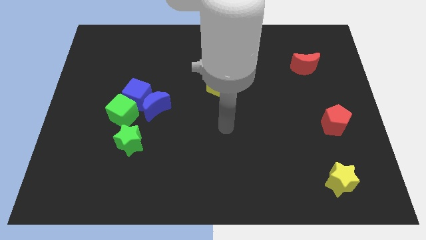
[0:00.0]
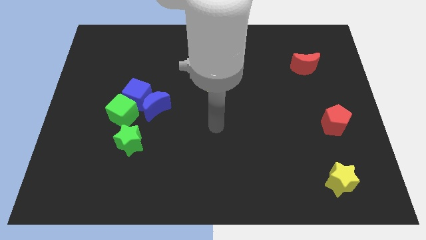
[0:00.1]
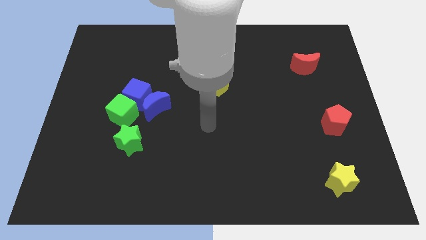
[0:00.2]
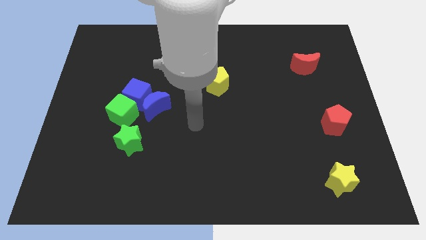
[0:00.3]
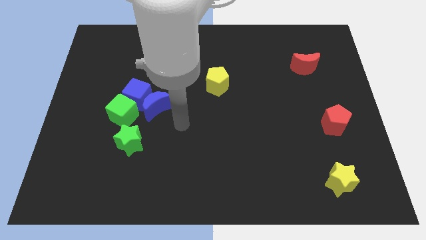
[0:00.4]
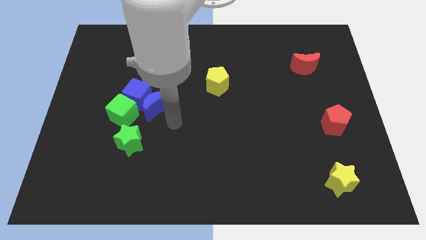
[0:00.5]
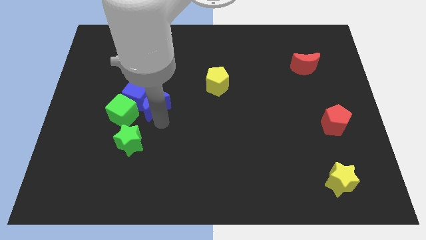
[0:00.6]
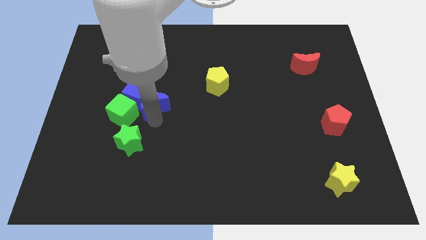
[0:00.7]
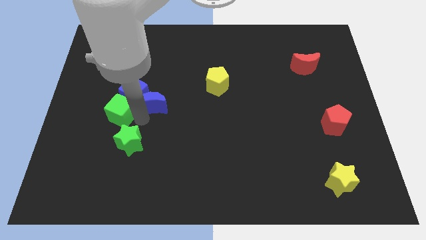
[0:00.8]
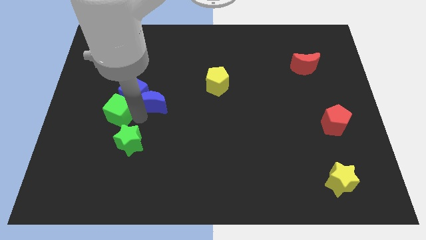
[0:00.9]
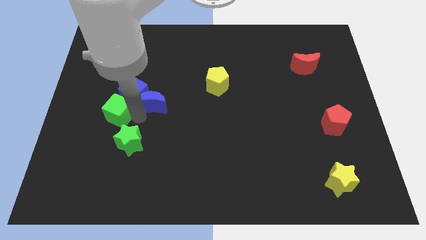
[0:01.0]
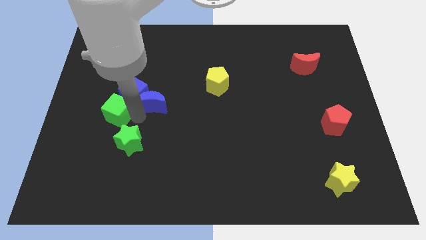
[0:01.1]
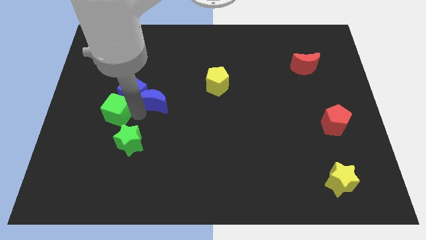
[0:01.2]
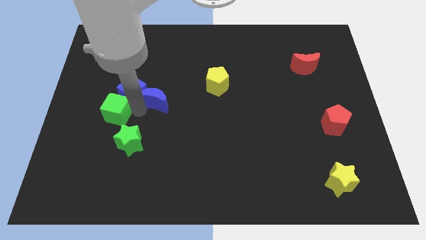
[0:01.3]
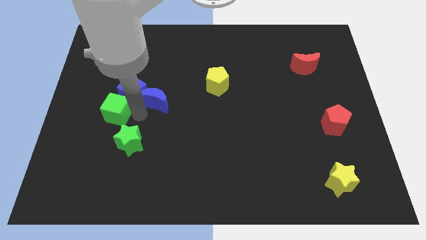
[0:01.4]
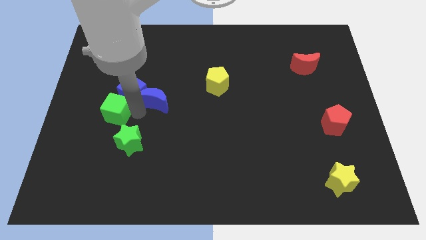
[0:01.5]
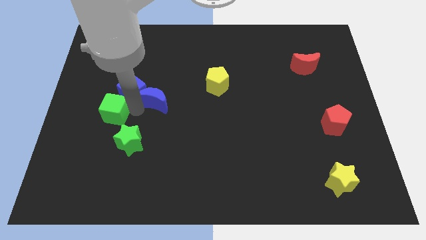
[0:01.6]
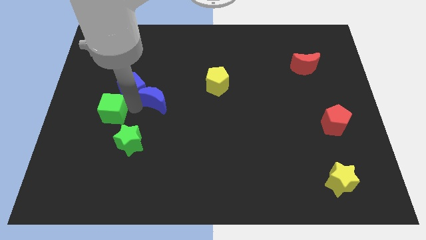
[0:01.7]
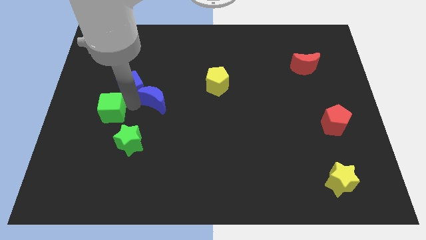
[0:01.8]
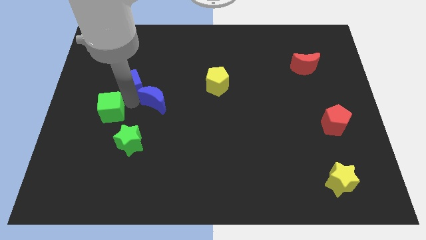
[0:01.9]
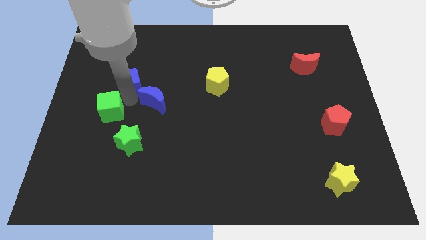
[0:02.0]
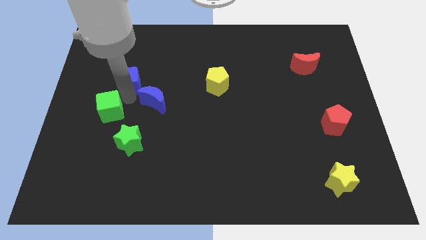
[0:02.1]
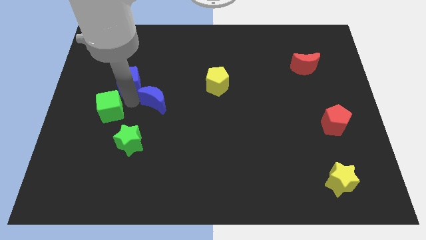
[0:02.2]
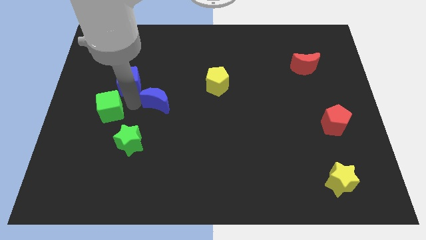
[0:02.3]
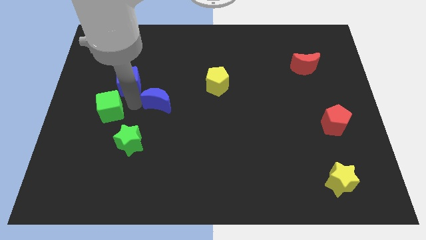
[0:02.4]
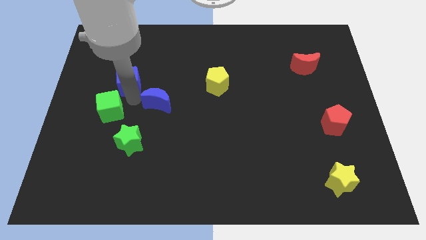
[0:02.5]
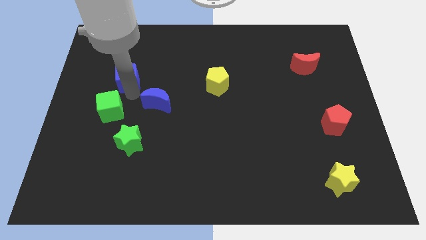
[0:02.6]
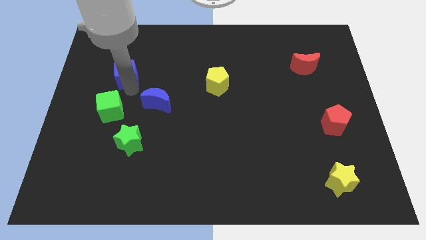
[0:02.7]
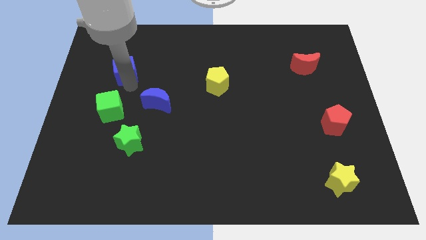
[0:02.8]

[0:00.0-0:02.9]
pull the blue cube apart from the blue moon and green cube

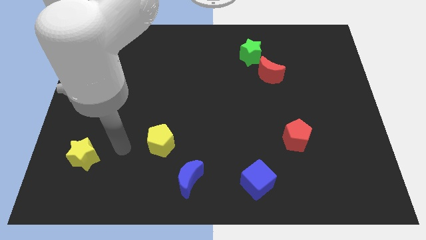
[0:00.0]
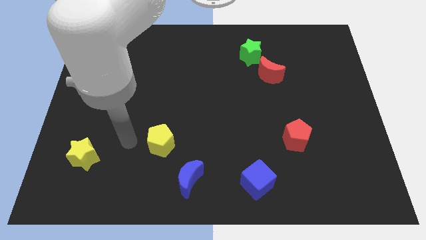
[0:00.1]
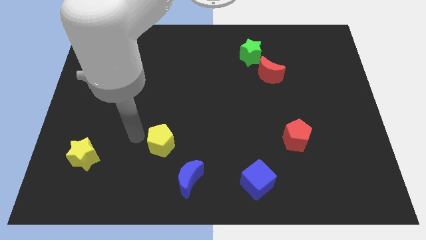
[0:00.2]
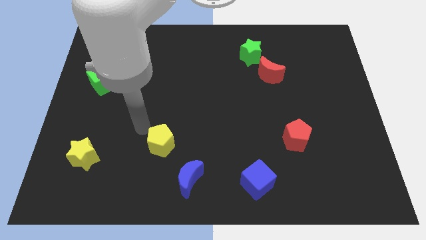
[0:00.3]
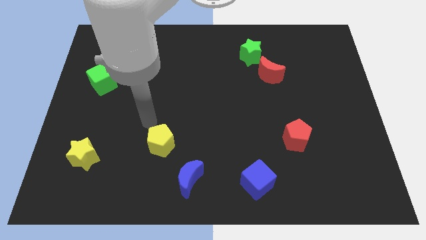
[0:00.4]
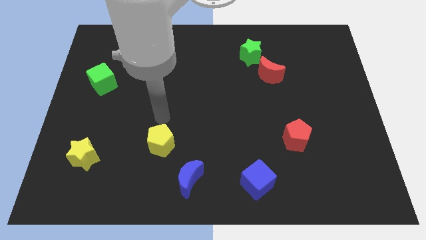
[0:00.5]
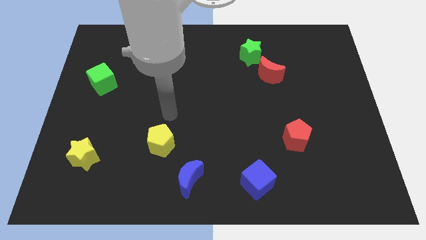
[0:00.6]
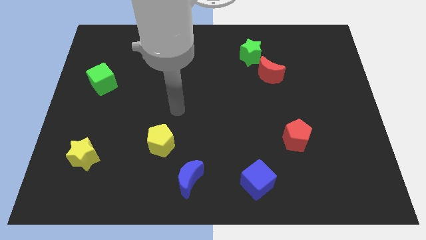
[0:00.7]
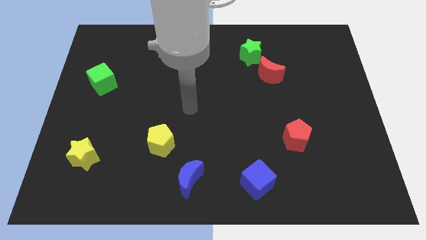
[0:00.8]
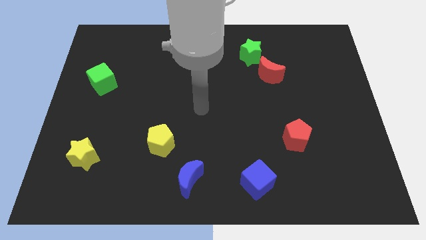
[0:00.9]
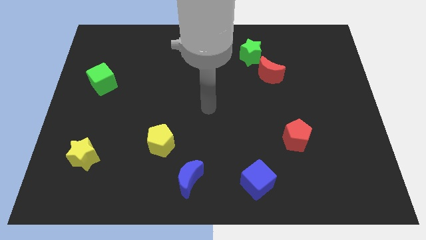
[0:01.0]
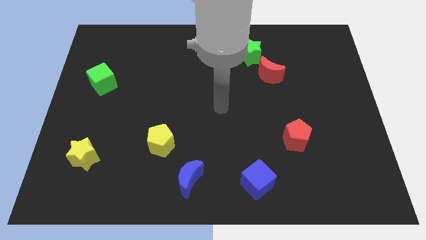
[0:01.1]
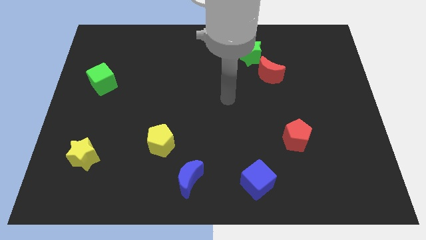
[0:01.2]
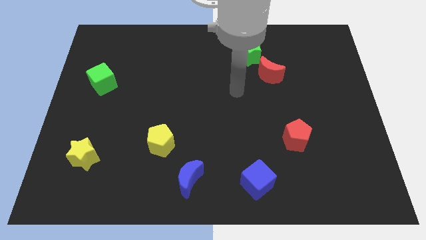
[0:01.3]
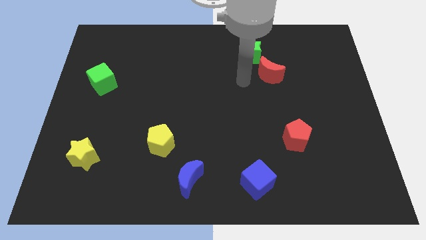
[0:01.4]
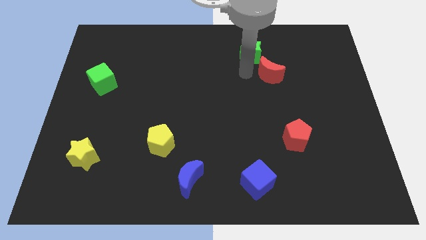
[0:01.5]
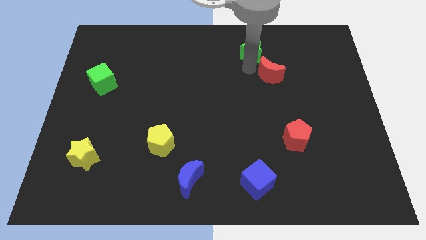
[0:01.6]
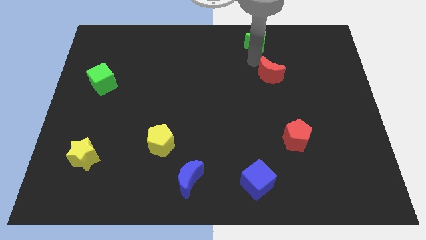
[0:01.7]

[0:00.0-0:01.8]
pull the red moon apart from the green star

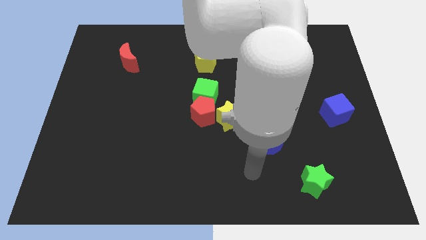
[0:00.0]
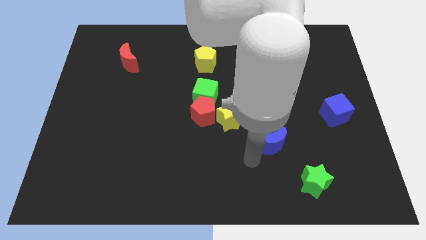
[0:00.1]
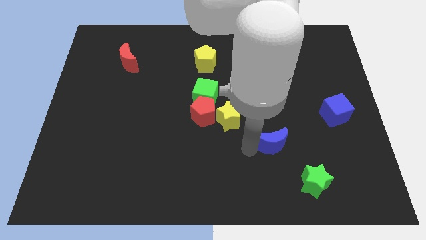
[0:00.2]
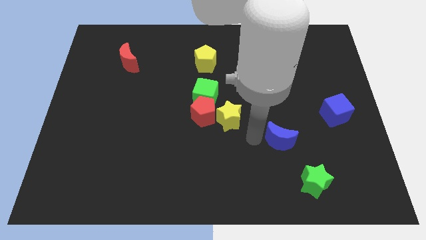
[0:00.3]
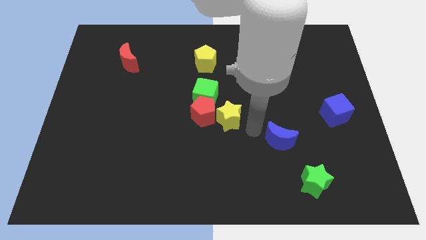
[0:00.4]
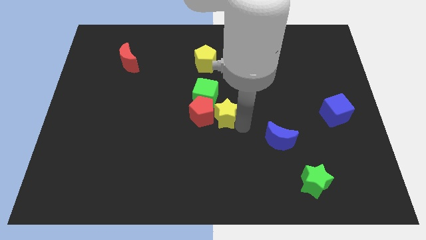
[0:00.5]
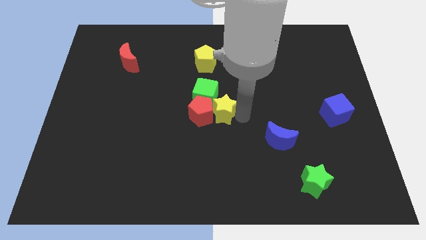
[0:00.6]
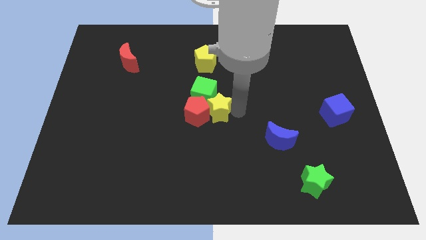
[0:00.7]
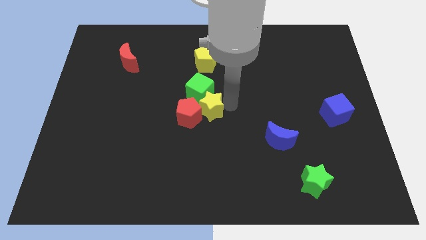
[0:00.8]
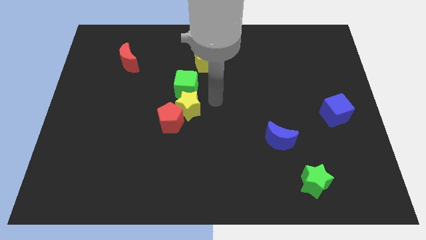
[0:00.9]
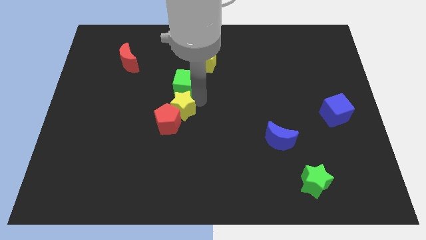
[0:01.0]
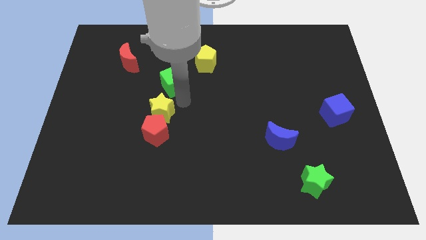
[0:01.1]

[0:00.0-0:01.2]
pull the red pentagon apart from the green cube and yellow star

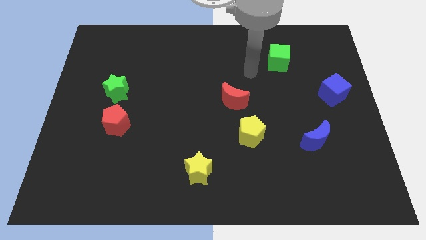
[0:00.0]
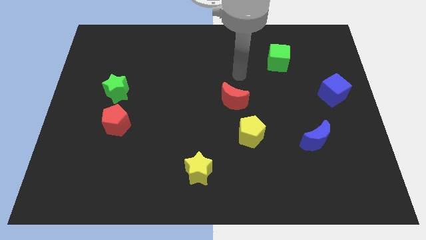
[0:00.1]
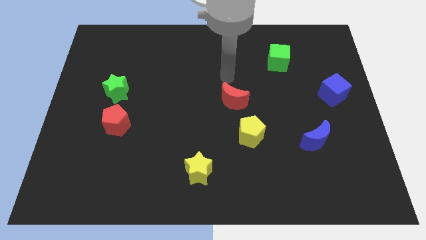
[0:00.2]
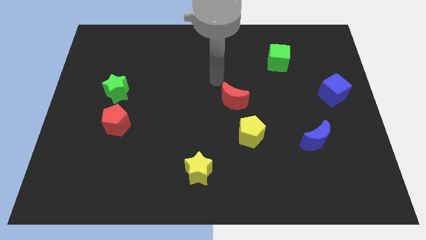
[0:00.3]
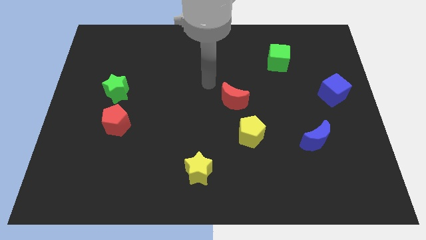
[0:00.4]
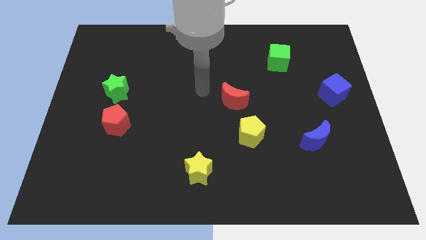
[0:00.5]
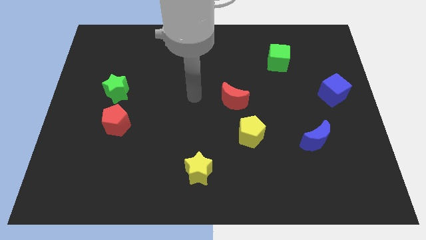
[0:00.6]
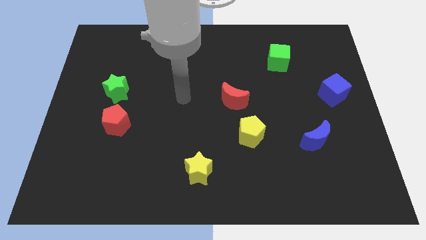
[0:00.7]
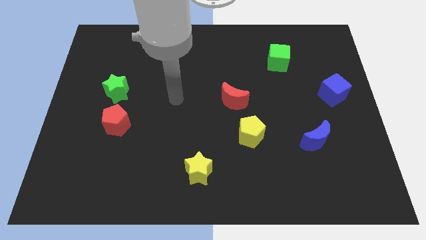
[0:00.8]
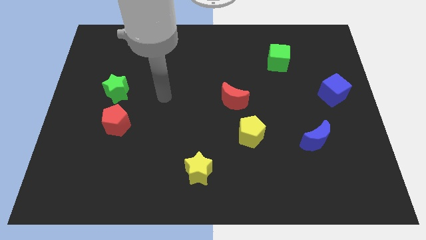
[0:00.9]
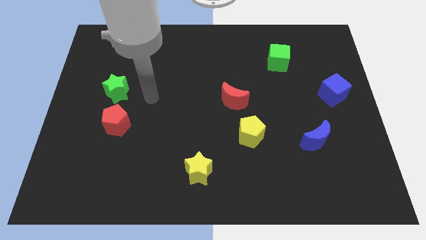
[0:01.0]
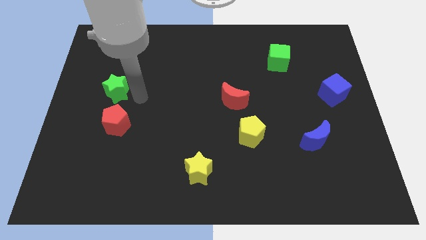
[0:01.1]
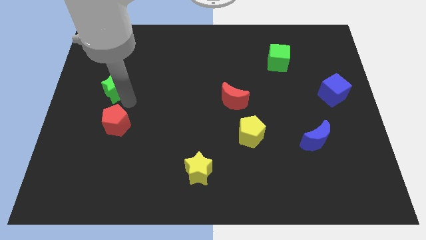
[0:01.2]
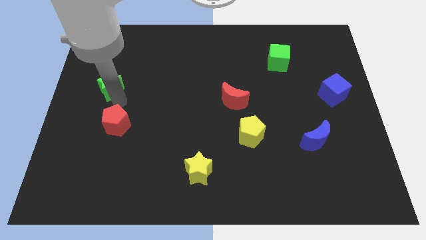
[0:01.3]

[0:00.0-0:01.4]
move the red pentagon away from the green star

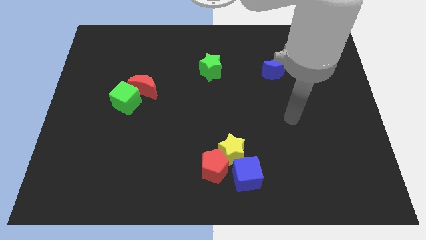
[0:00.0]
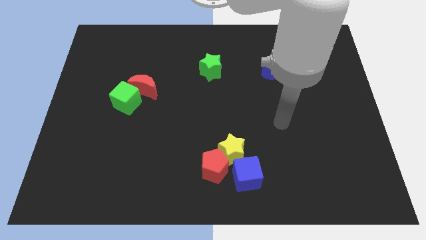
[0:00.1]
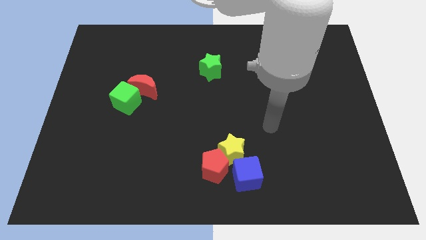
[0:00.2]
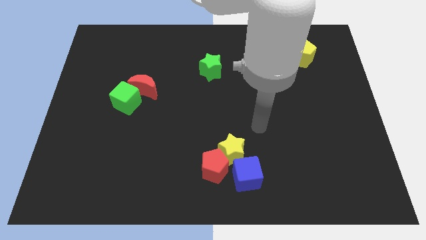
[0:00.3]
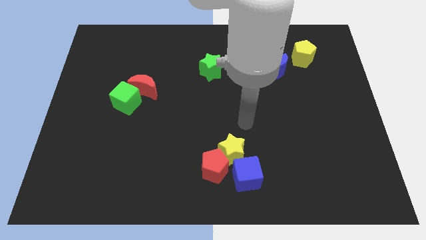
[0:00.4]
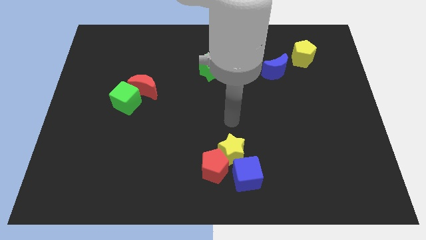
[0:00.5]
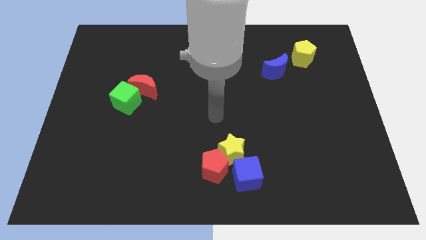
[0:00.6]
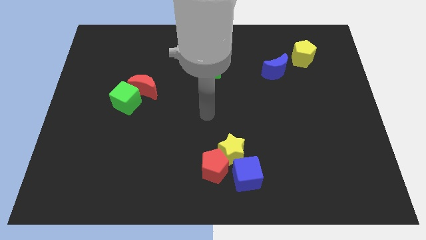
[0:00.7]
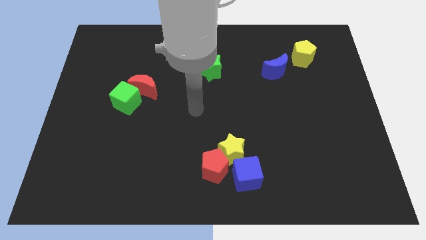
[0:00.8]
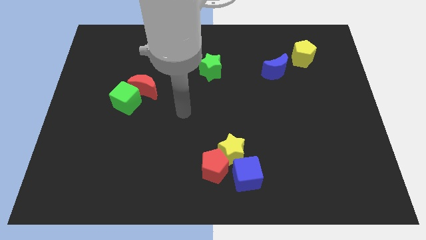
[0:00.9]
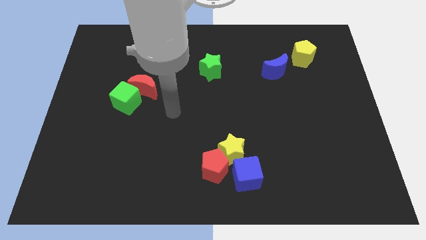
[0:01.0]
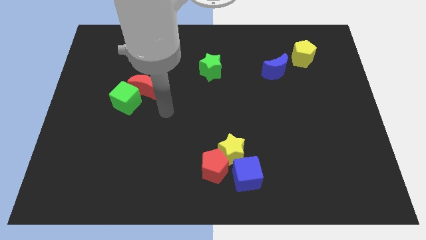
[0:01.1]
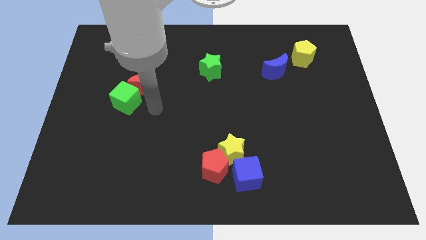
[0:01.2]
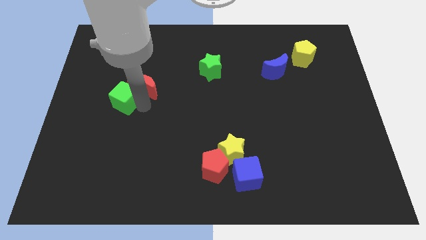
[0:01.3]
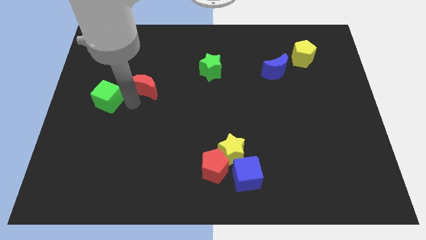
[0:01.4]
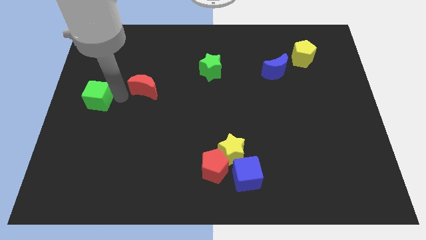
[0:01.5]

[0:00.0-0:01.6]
pull the red moon apart from the green cube

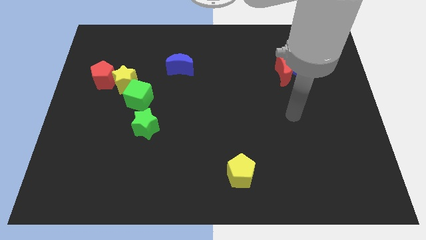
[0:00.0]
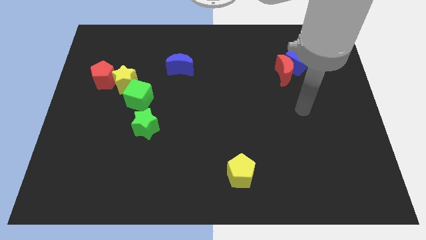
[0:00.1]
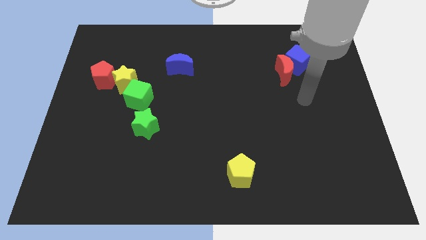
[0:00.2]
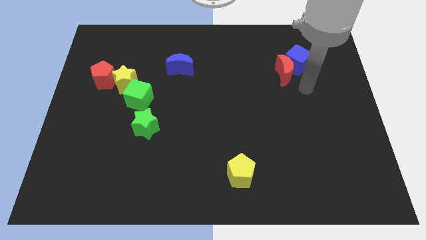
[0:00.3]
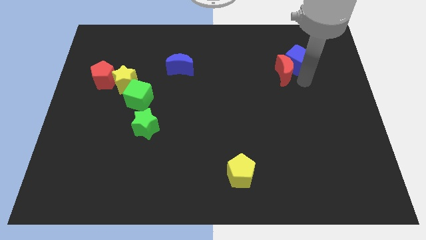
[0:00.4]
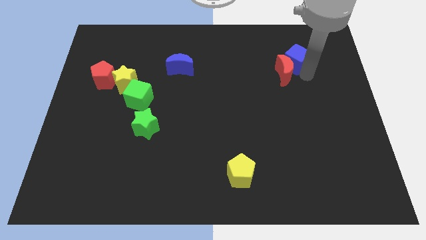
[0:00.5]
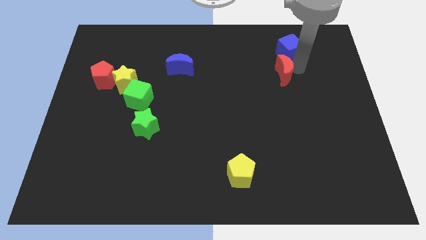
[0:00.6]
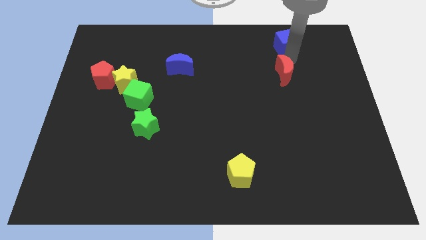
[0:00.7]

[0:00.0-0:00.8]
separate the red moon from the blue cube
